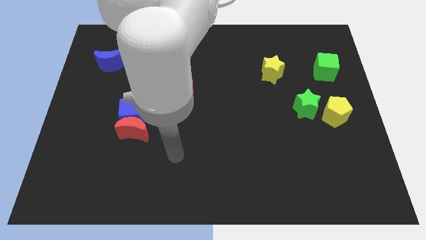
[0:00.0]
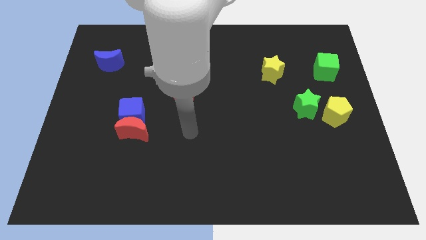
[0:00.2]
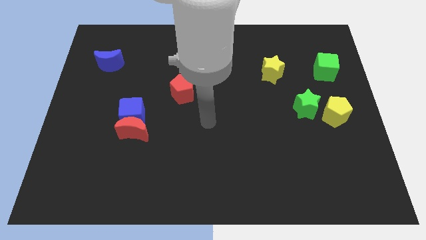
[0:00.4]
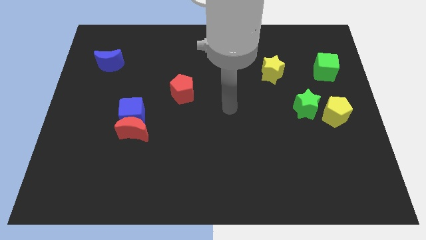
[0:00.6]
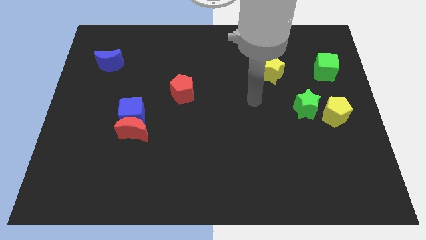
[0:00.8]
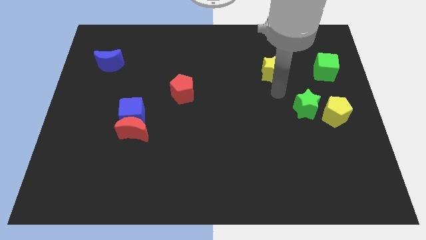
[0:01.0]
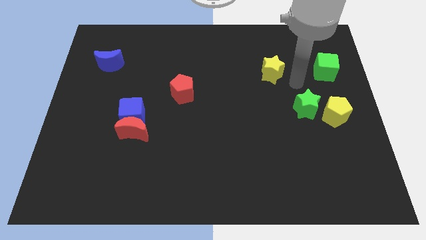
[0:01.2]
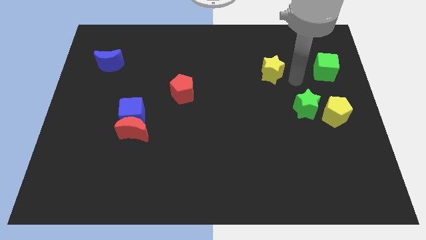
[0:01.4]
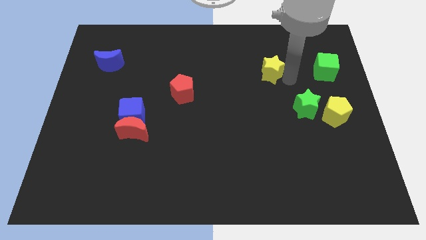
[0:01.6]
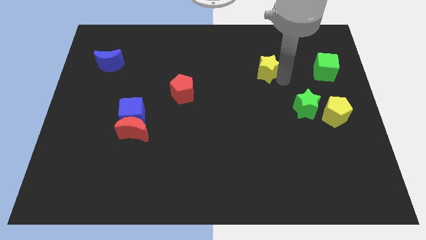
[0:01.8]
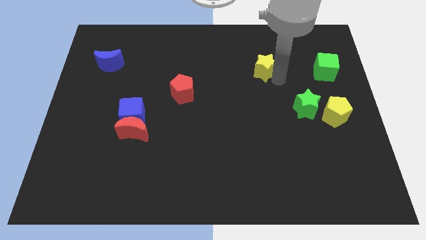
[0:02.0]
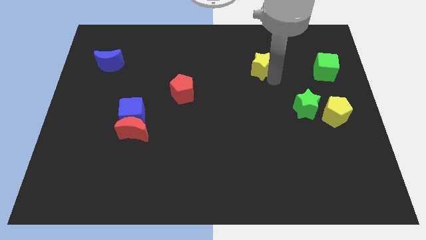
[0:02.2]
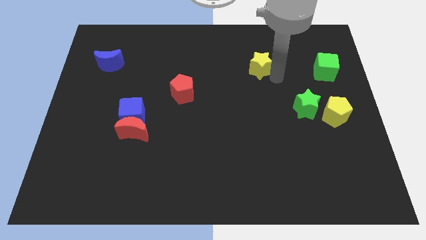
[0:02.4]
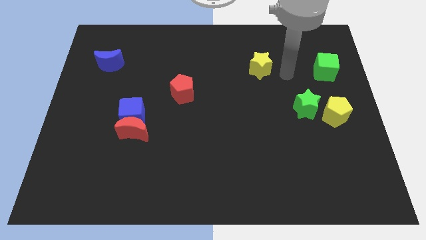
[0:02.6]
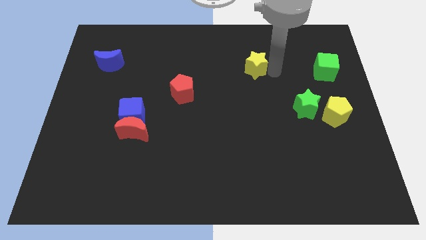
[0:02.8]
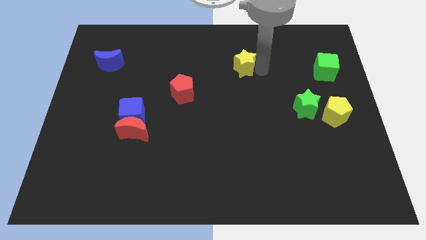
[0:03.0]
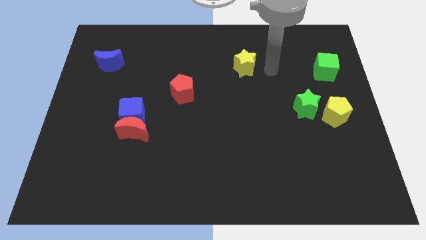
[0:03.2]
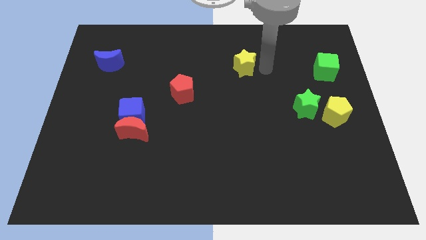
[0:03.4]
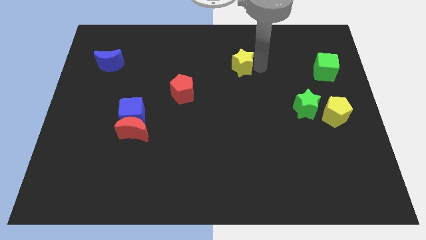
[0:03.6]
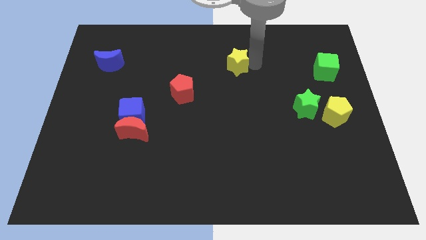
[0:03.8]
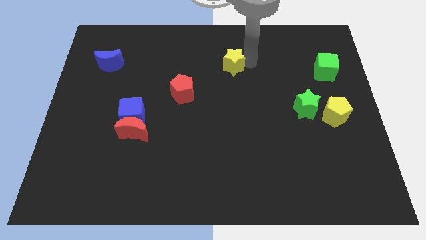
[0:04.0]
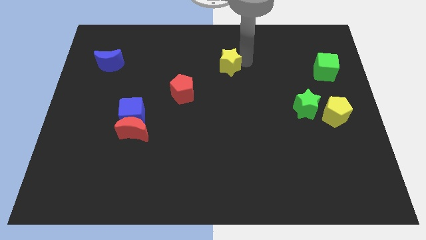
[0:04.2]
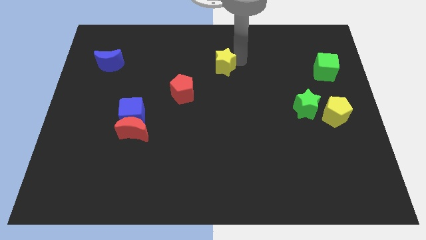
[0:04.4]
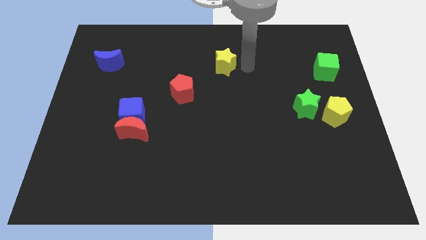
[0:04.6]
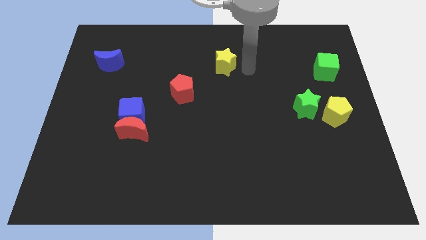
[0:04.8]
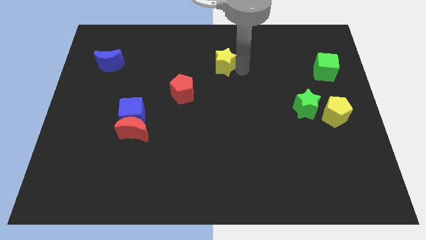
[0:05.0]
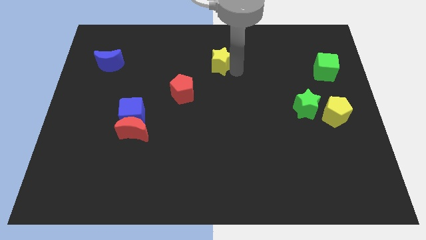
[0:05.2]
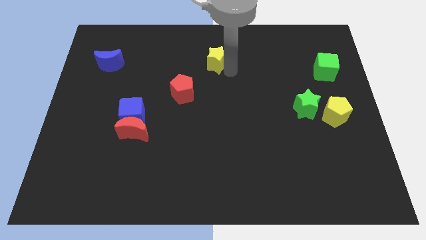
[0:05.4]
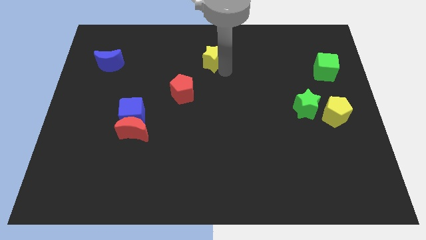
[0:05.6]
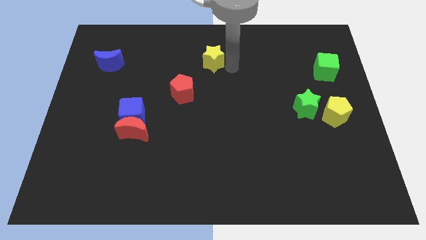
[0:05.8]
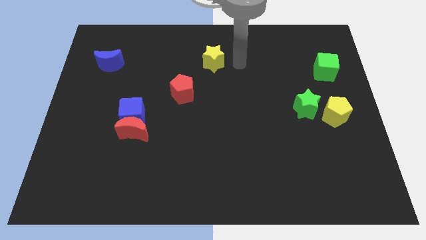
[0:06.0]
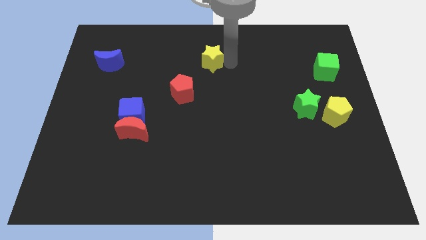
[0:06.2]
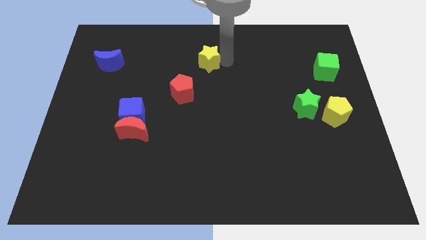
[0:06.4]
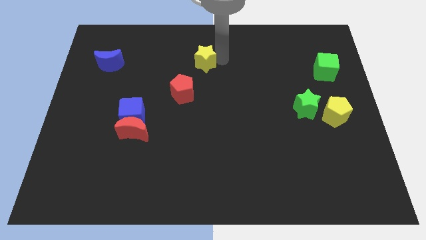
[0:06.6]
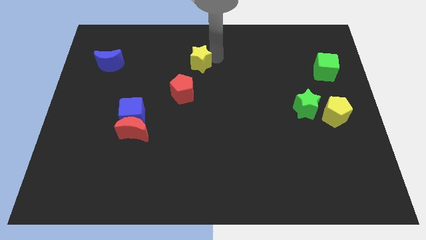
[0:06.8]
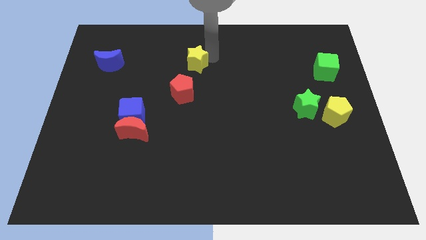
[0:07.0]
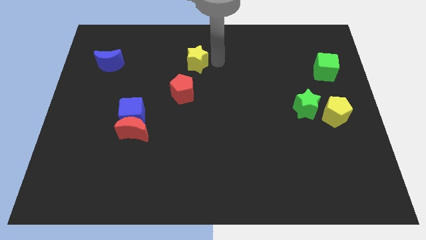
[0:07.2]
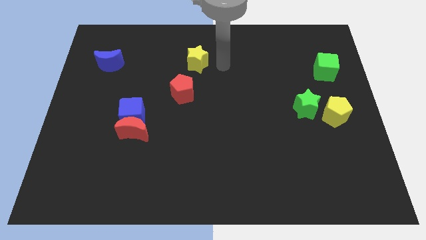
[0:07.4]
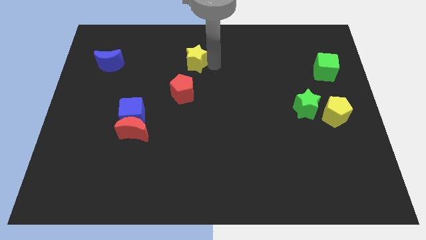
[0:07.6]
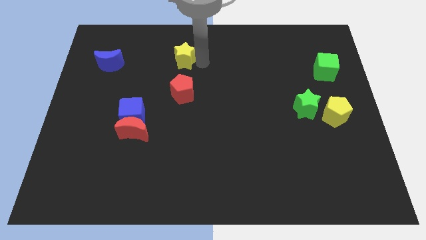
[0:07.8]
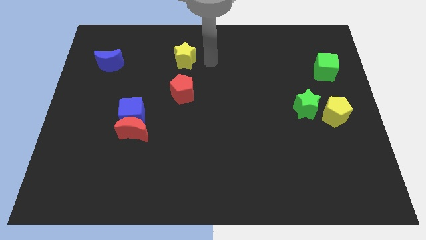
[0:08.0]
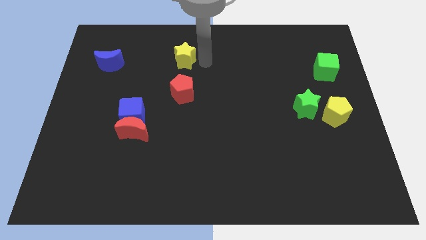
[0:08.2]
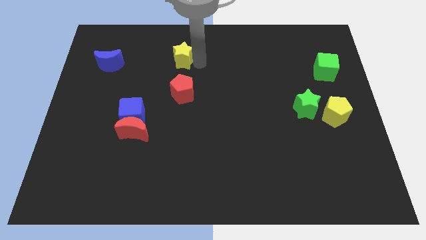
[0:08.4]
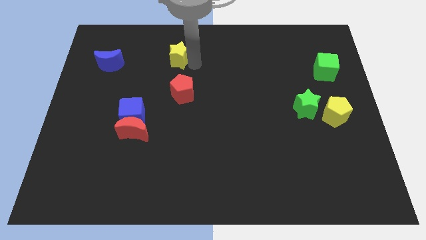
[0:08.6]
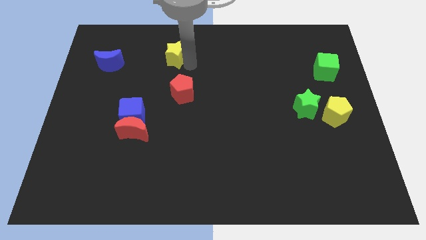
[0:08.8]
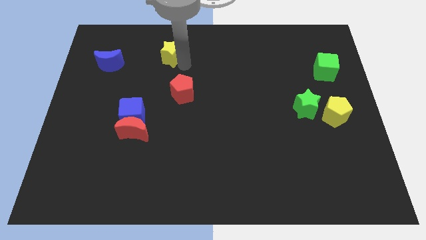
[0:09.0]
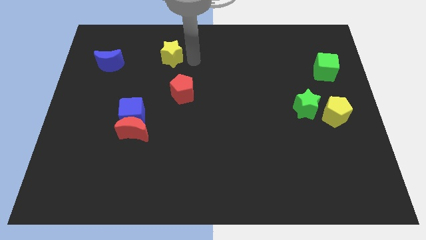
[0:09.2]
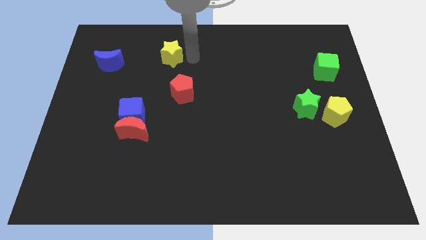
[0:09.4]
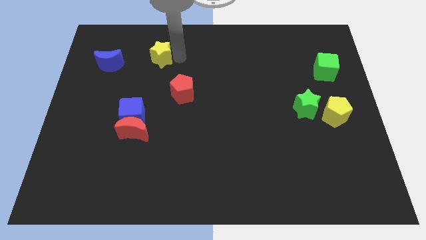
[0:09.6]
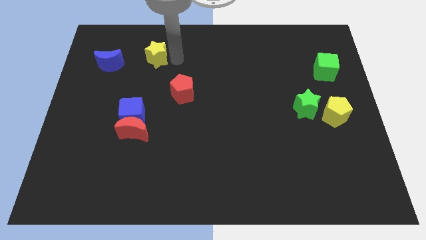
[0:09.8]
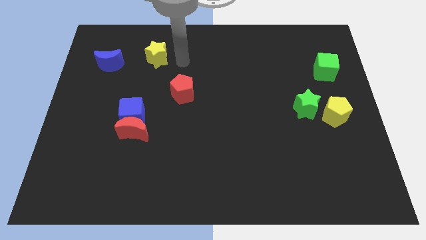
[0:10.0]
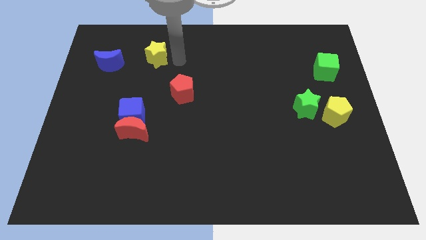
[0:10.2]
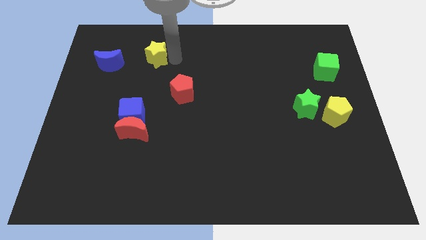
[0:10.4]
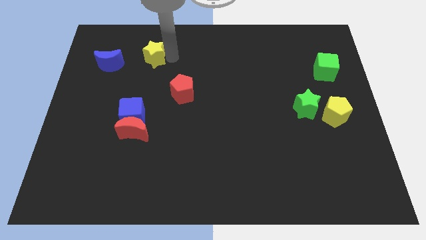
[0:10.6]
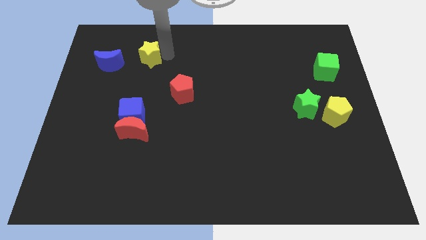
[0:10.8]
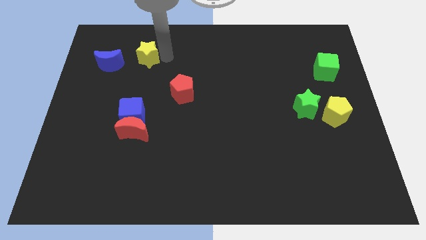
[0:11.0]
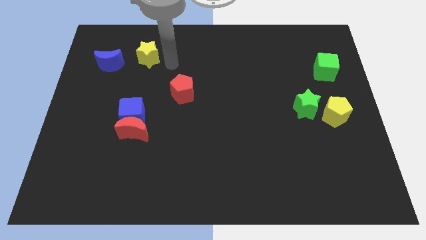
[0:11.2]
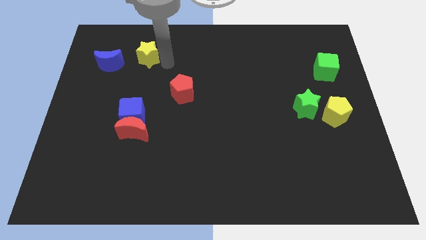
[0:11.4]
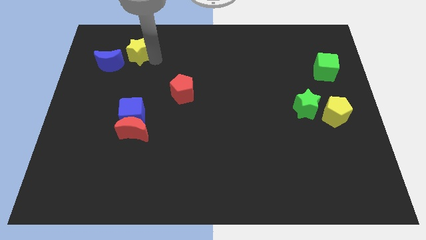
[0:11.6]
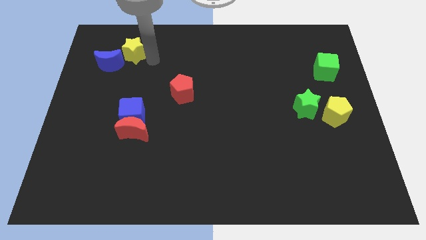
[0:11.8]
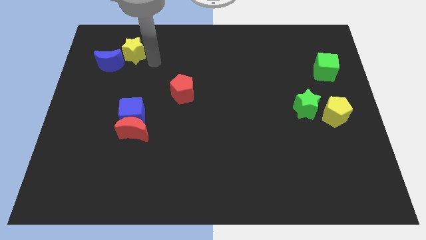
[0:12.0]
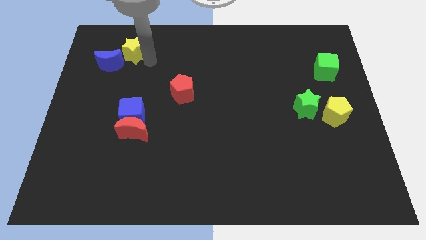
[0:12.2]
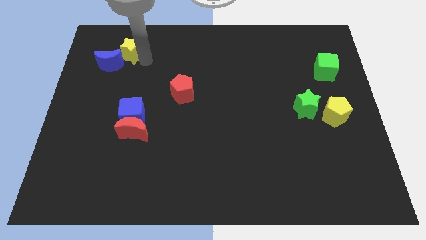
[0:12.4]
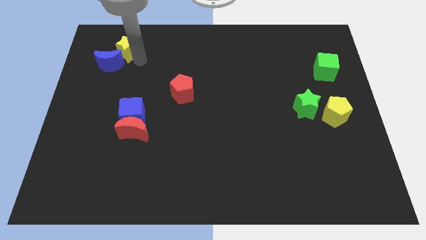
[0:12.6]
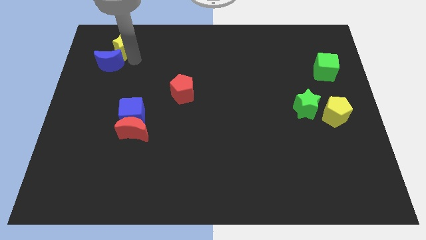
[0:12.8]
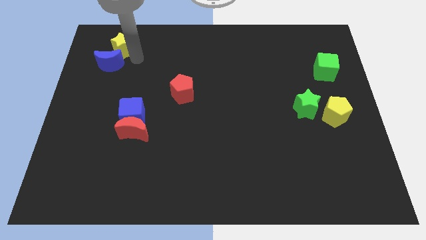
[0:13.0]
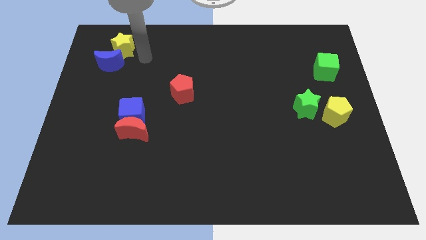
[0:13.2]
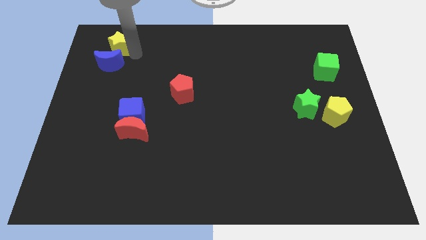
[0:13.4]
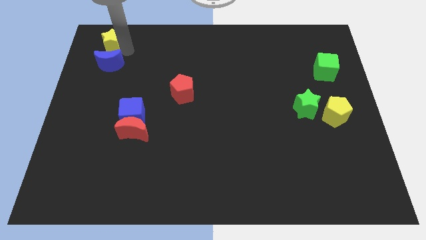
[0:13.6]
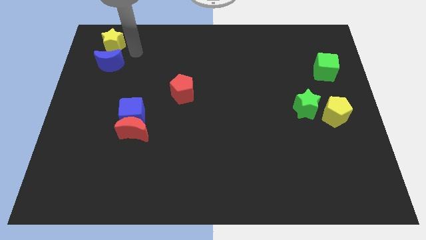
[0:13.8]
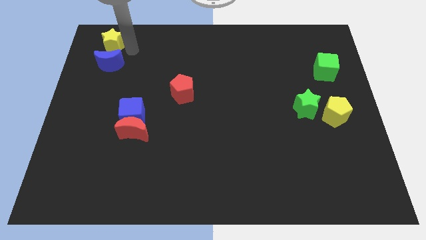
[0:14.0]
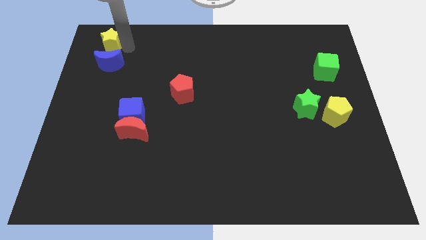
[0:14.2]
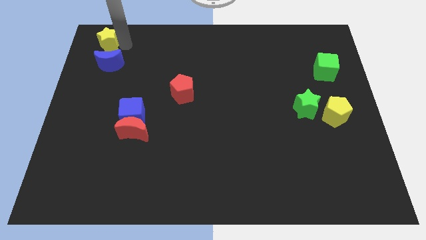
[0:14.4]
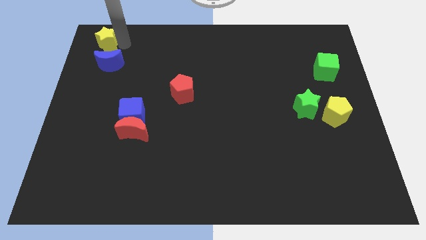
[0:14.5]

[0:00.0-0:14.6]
slide the yellow star to the top left of the board
